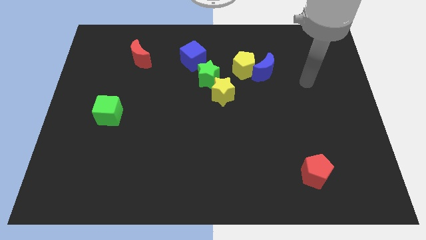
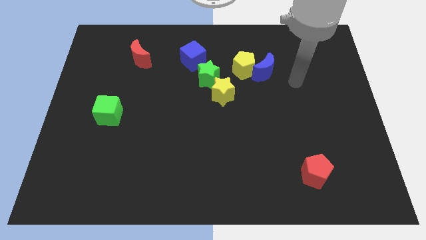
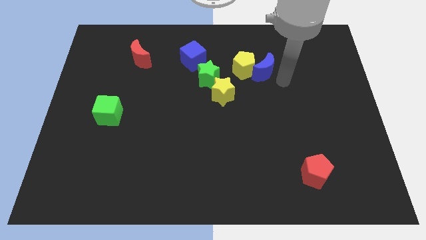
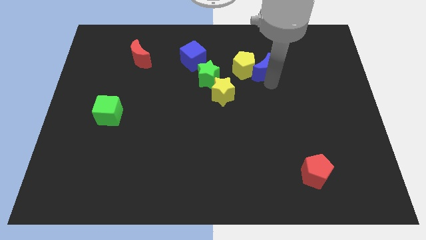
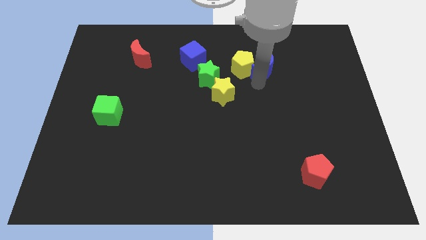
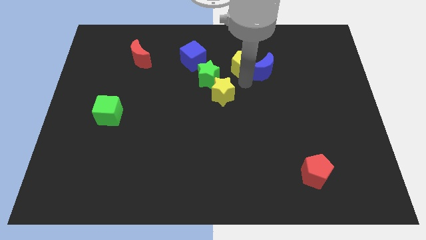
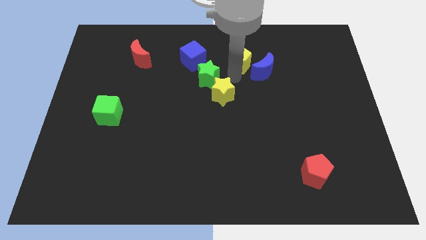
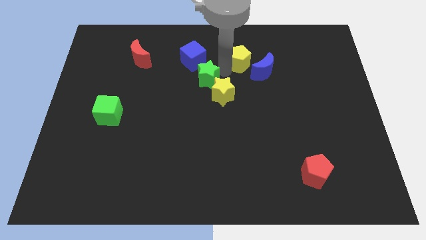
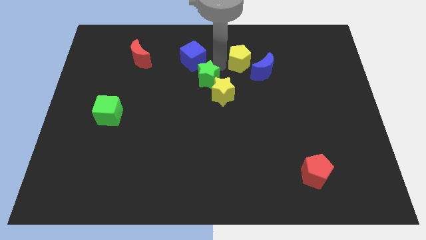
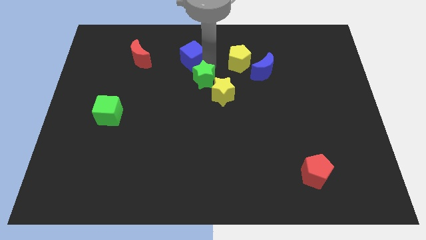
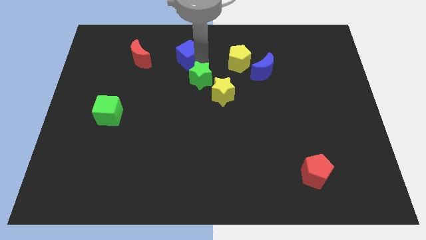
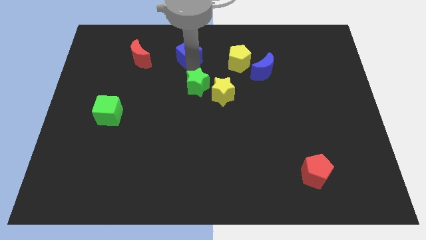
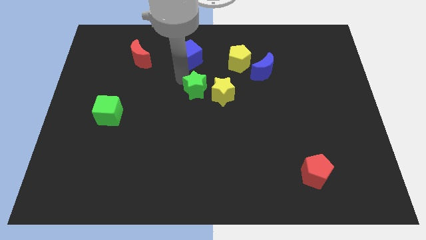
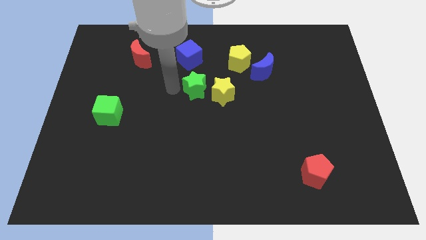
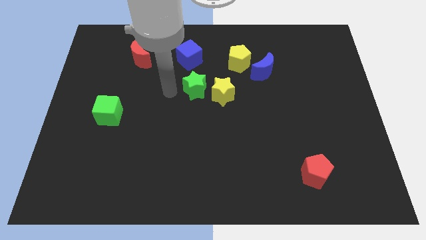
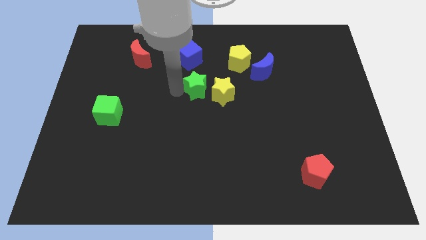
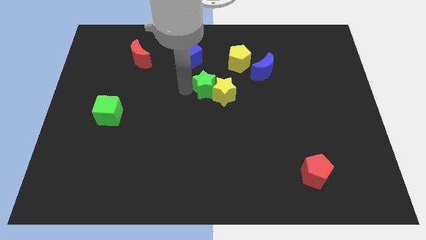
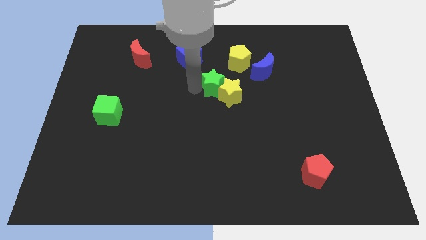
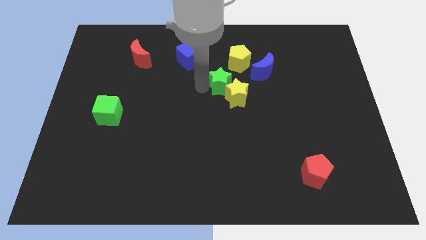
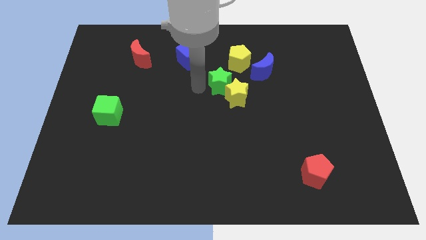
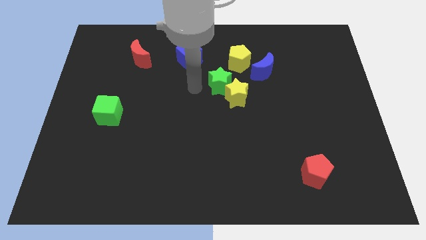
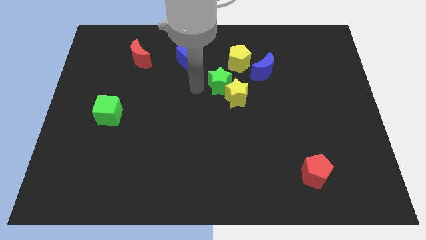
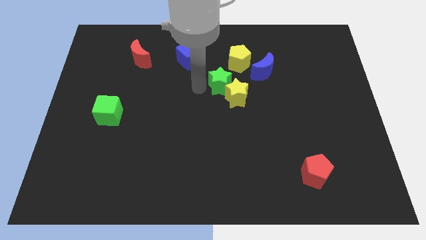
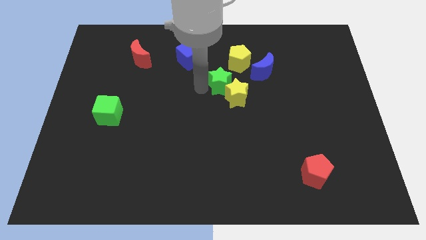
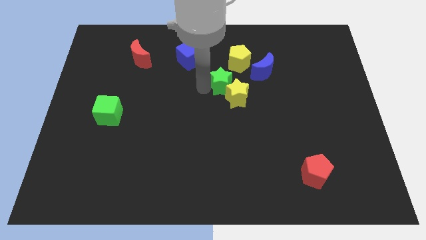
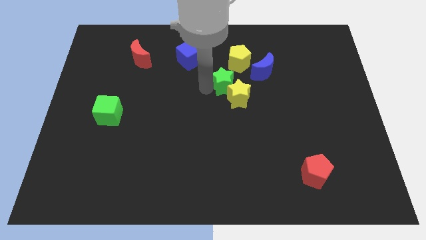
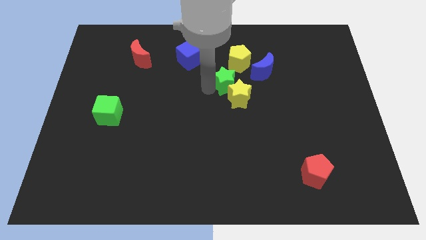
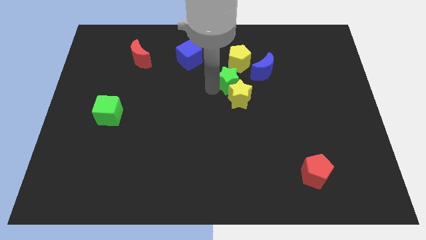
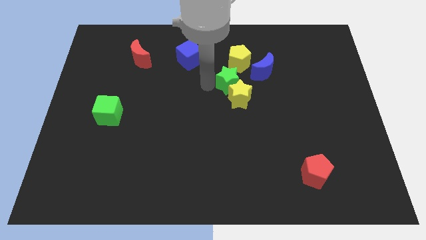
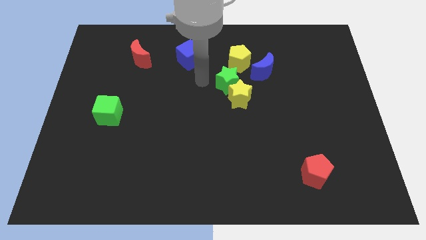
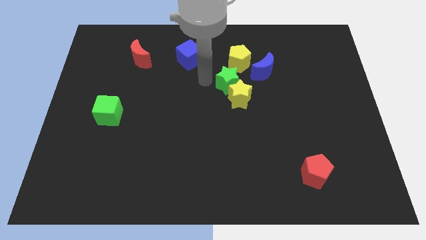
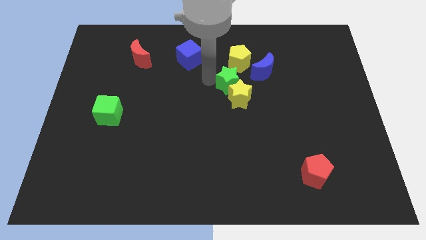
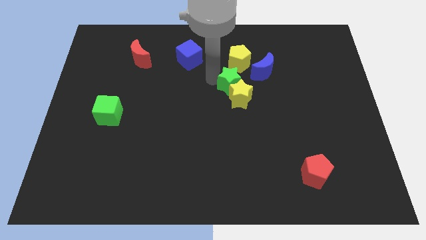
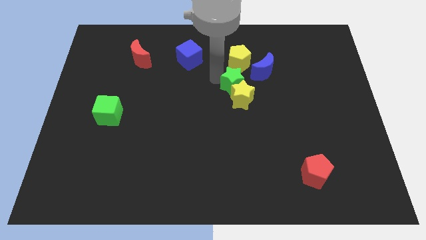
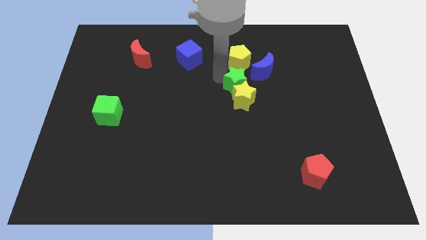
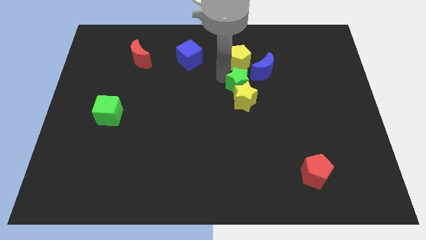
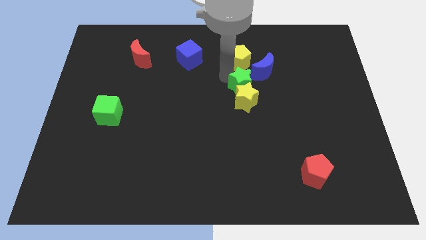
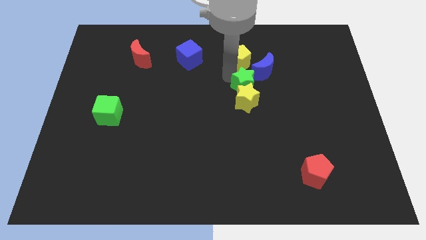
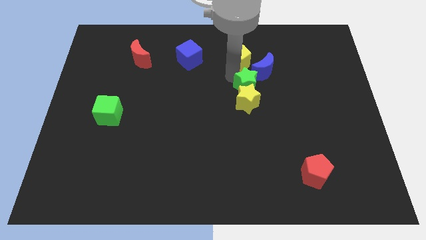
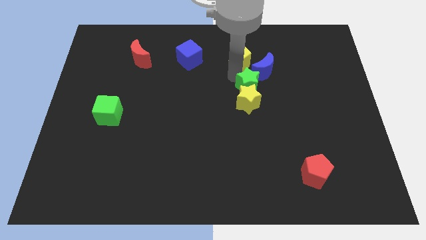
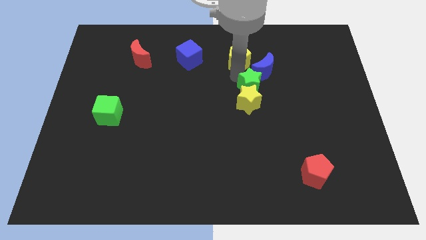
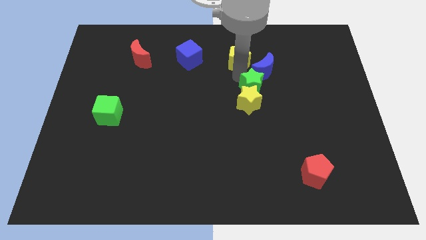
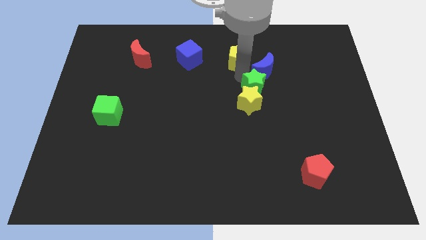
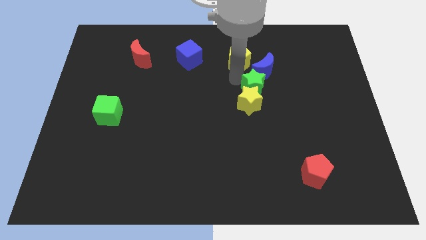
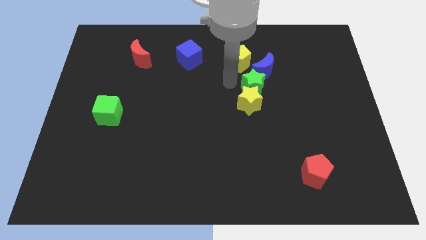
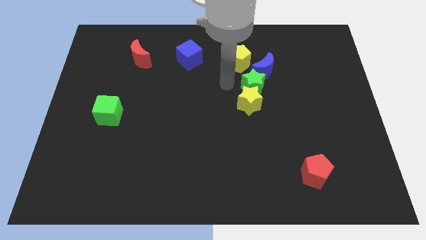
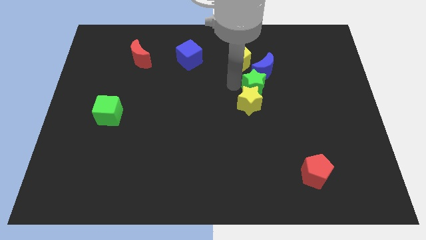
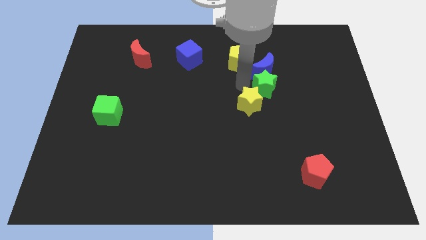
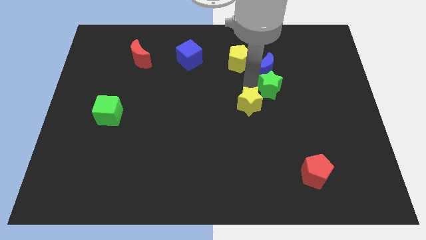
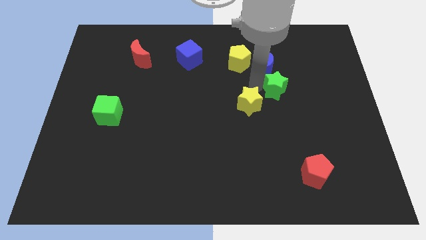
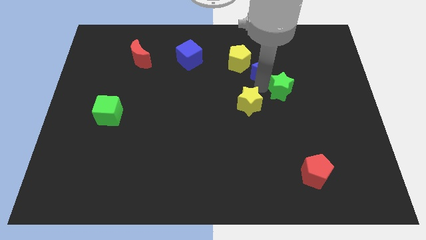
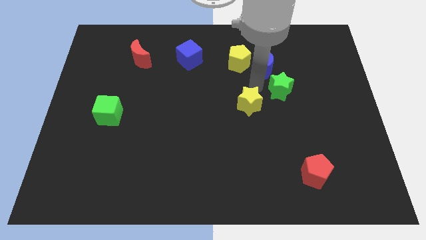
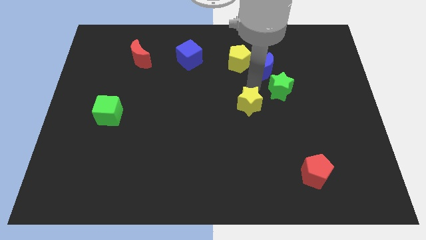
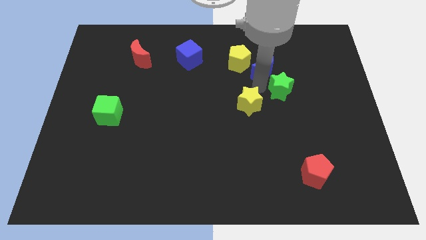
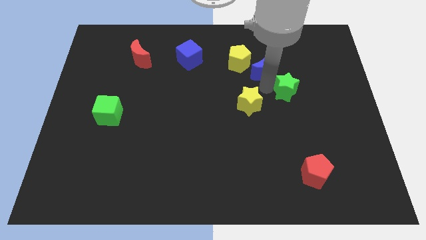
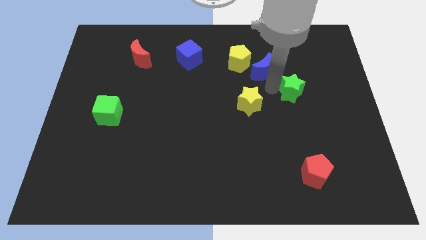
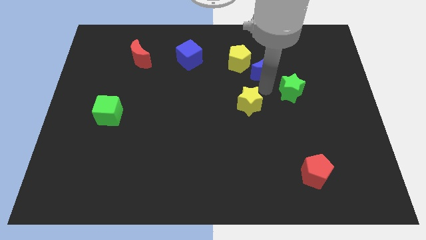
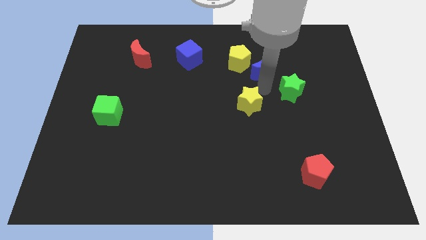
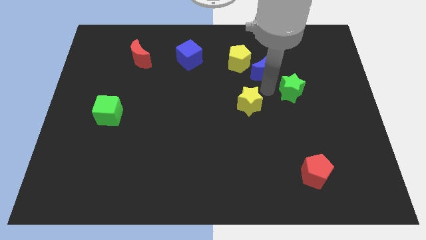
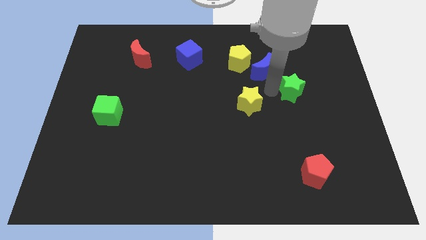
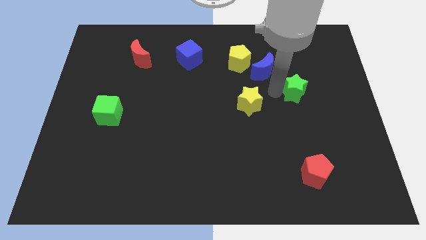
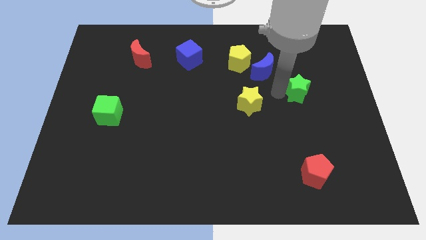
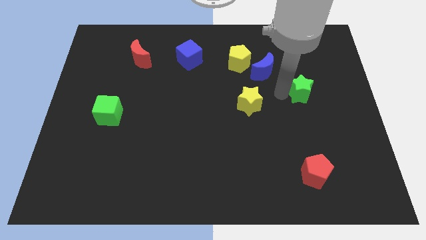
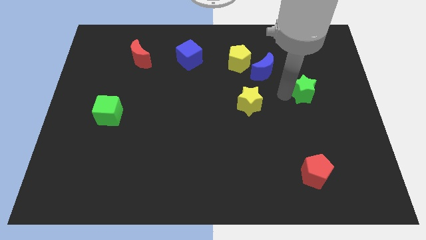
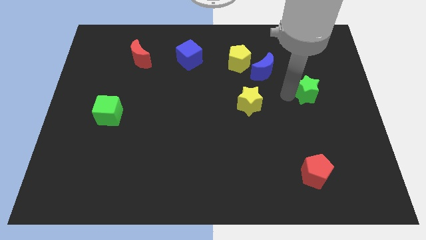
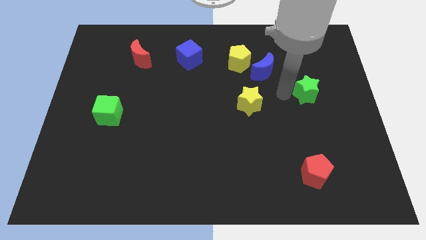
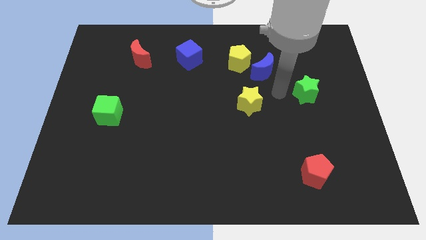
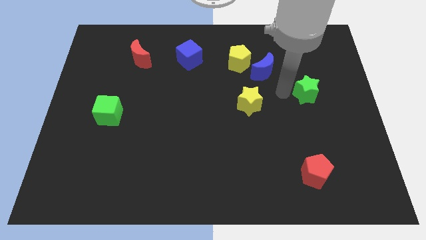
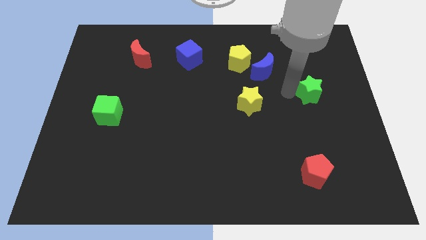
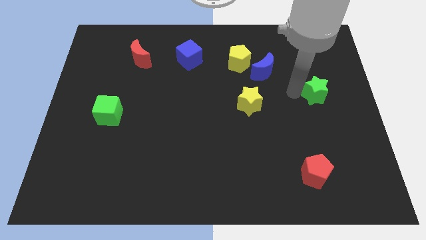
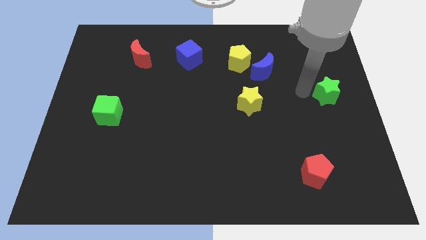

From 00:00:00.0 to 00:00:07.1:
push the green star to the right side
